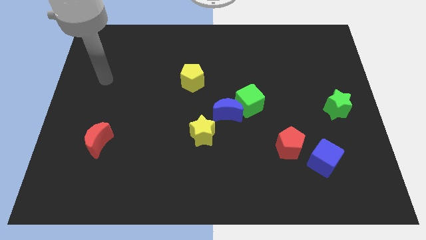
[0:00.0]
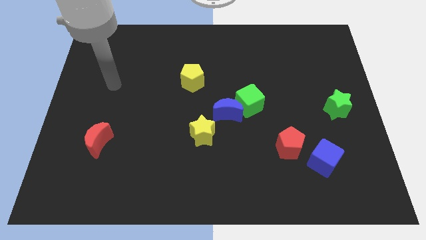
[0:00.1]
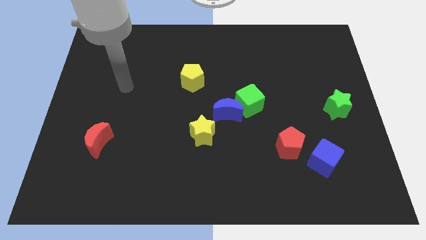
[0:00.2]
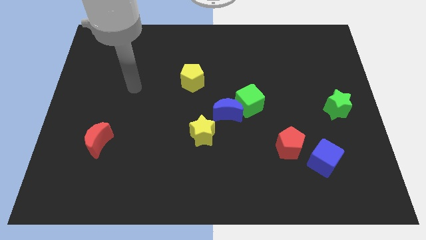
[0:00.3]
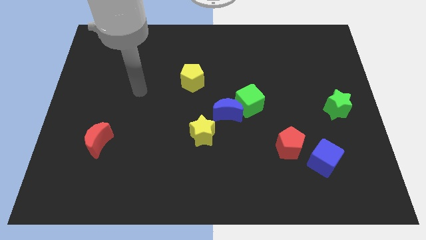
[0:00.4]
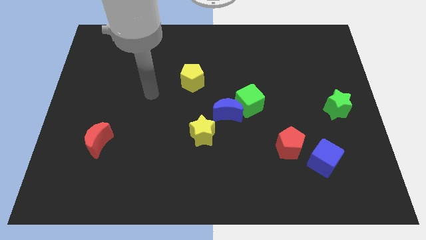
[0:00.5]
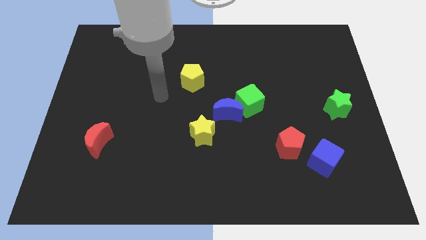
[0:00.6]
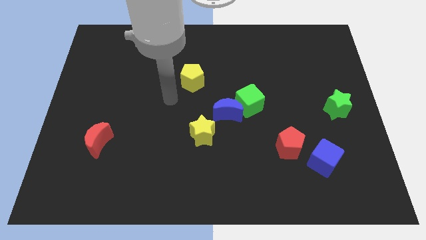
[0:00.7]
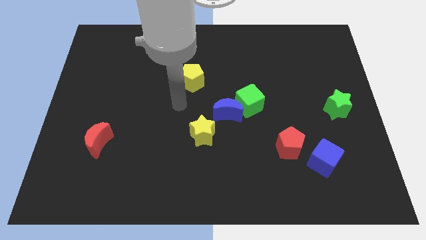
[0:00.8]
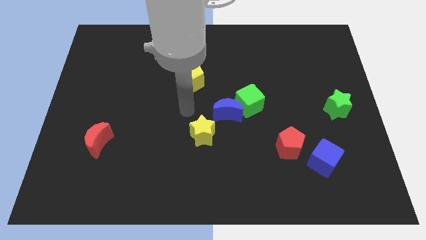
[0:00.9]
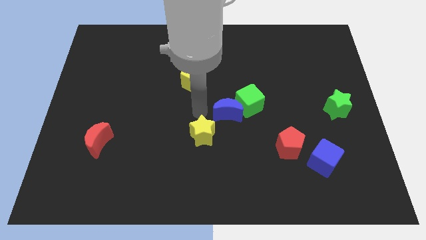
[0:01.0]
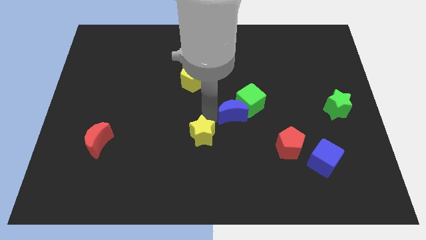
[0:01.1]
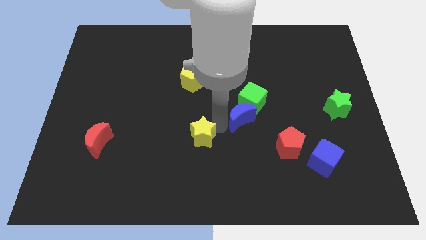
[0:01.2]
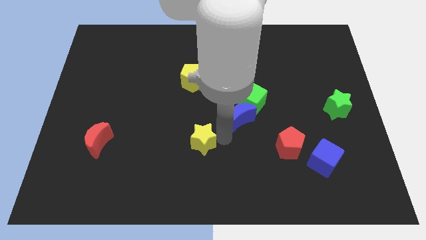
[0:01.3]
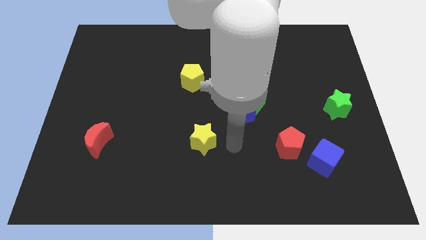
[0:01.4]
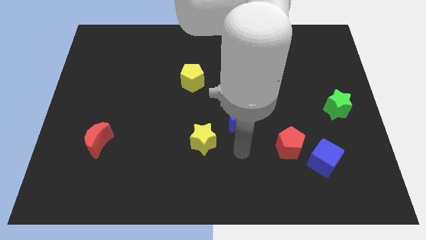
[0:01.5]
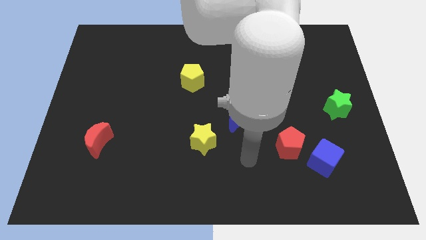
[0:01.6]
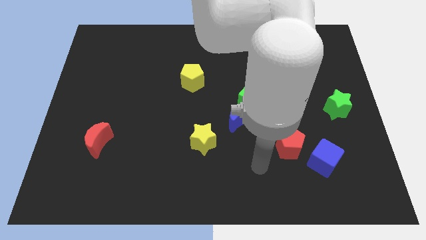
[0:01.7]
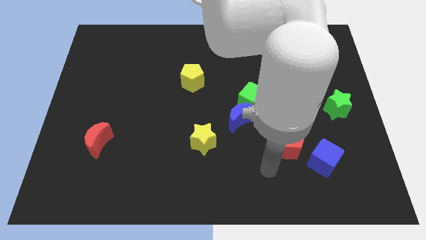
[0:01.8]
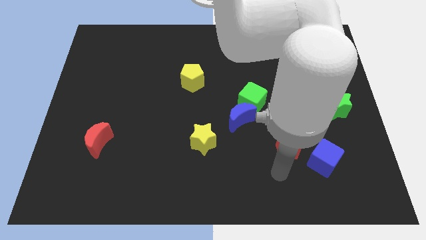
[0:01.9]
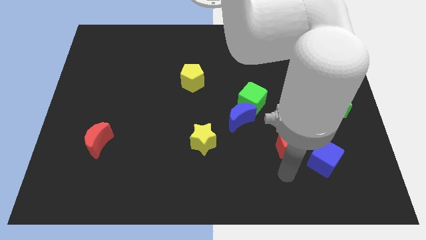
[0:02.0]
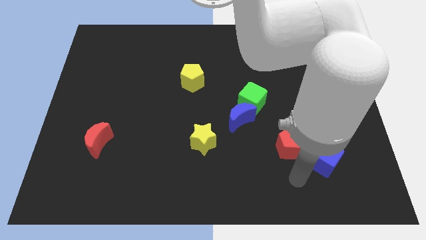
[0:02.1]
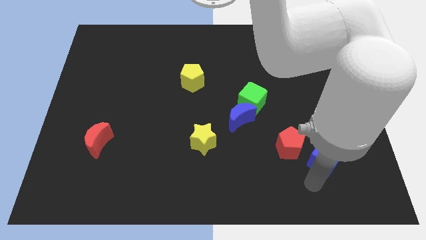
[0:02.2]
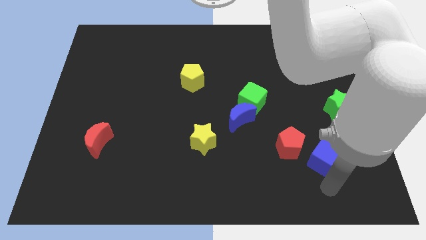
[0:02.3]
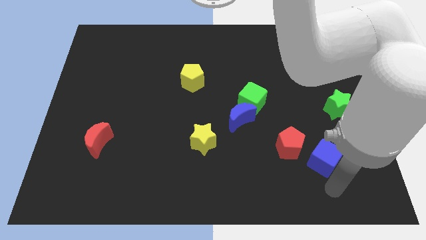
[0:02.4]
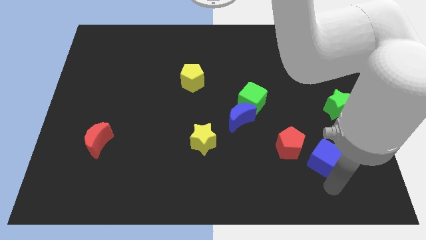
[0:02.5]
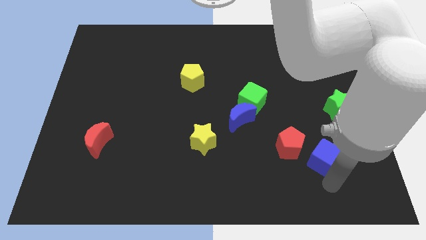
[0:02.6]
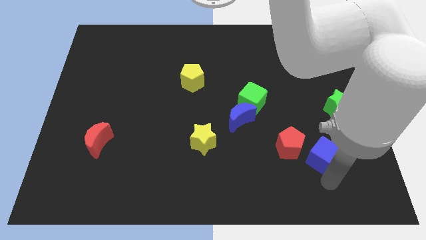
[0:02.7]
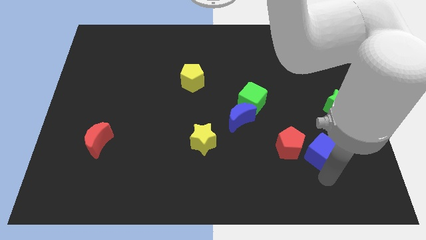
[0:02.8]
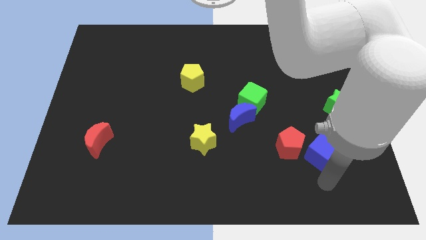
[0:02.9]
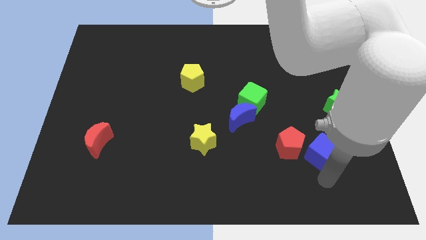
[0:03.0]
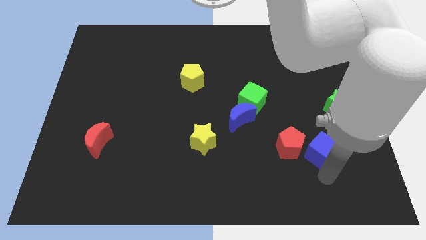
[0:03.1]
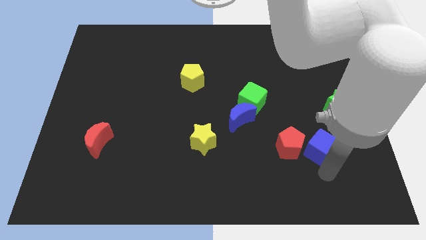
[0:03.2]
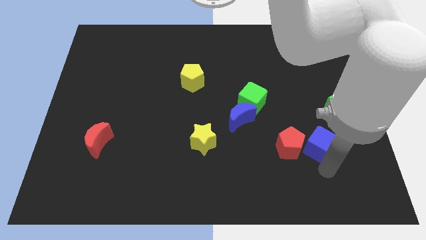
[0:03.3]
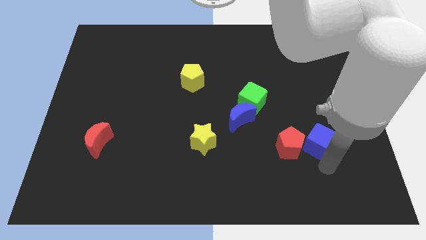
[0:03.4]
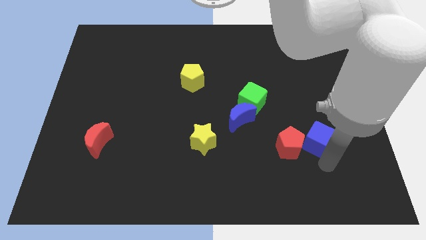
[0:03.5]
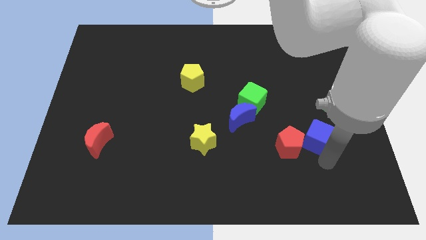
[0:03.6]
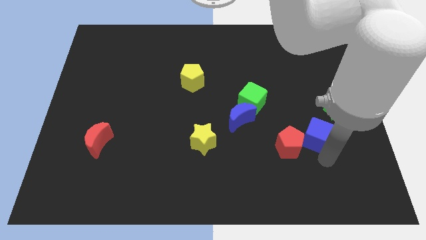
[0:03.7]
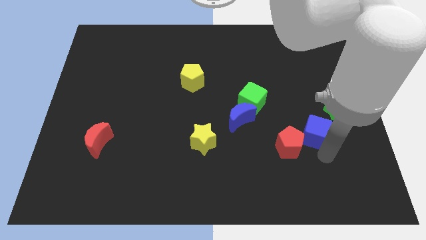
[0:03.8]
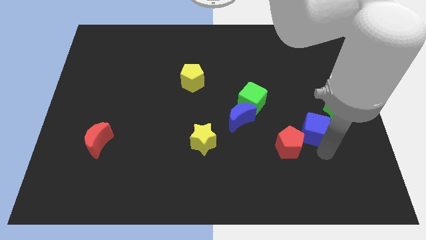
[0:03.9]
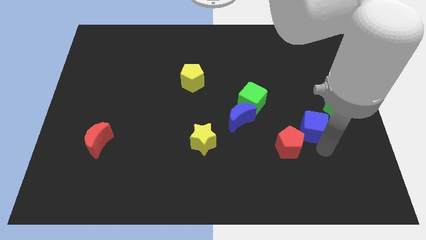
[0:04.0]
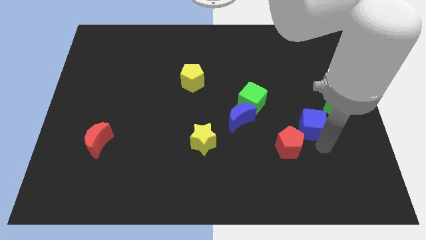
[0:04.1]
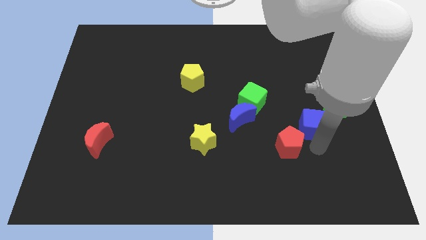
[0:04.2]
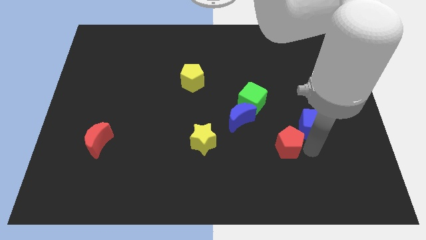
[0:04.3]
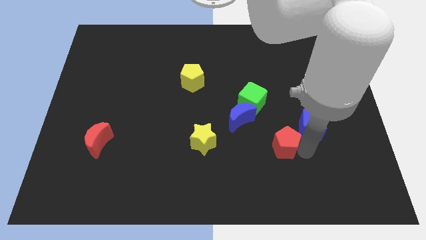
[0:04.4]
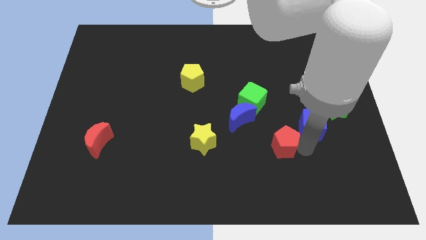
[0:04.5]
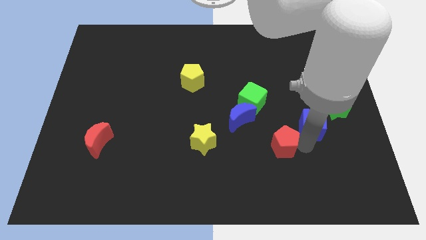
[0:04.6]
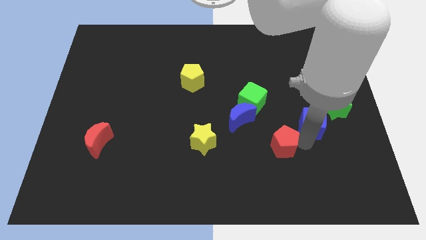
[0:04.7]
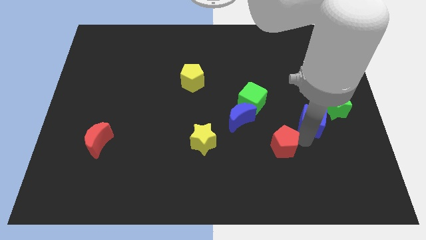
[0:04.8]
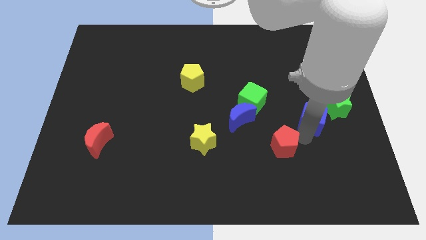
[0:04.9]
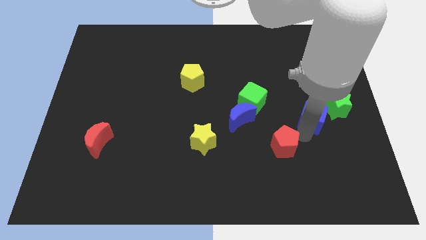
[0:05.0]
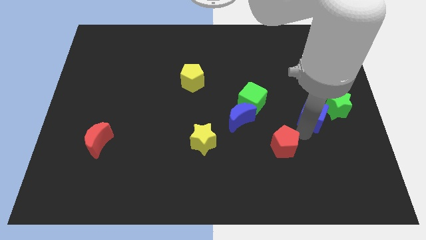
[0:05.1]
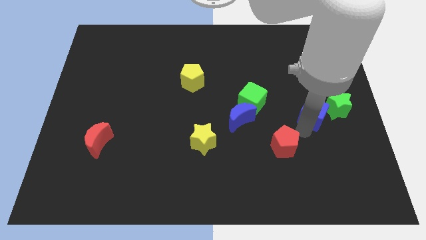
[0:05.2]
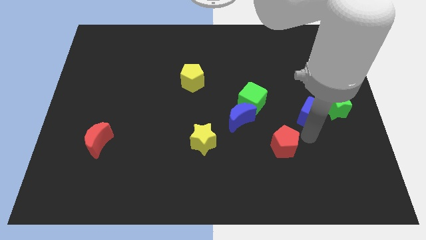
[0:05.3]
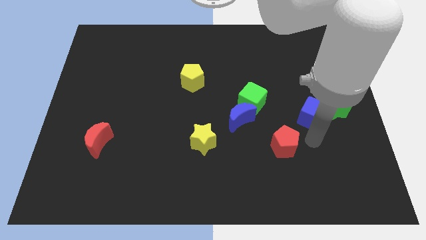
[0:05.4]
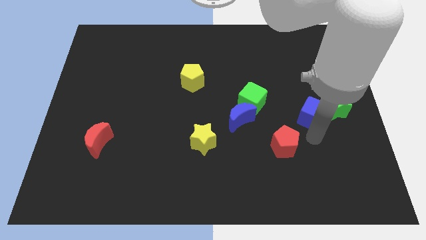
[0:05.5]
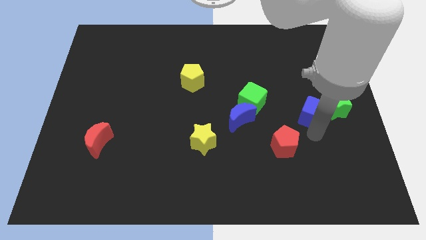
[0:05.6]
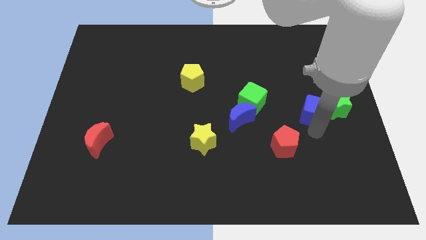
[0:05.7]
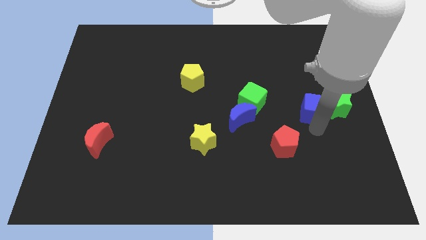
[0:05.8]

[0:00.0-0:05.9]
slide the blue cube diagonally up and to the left of the green star

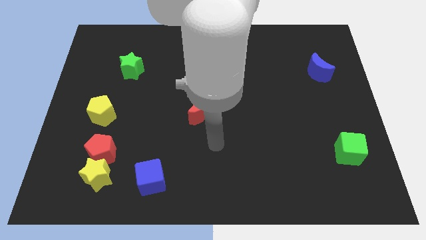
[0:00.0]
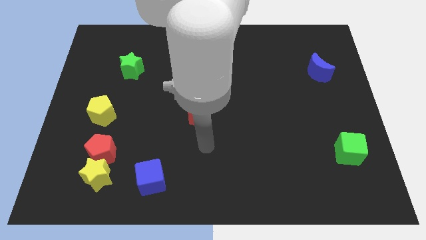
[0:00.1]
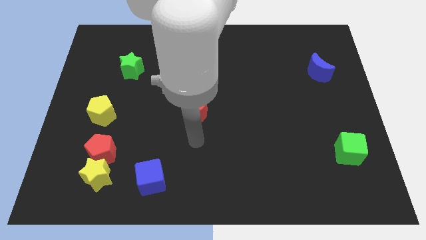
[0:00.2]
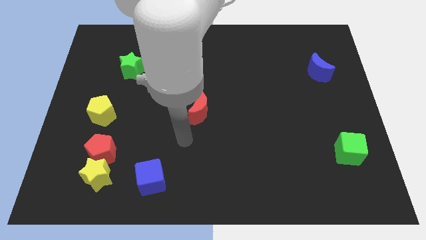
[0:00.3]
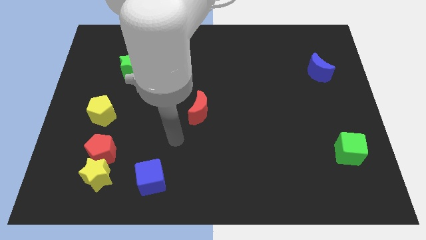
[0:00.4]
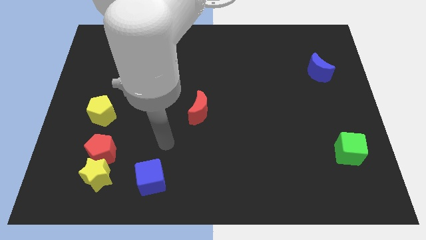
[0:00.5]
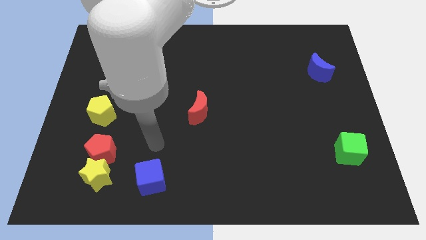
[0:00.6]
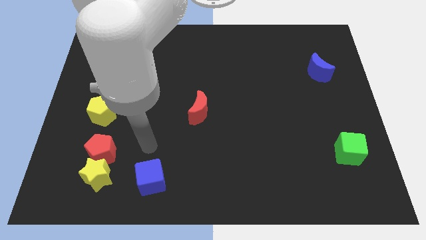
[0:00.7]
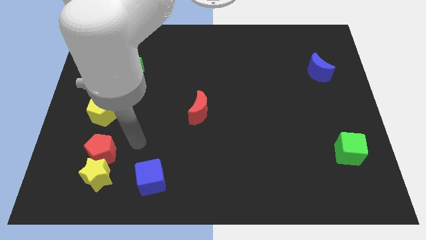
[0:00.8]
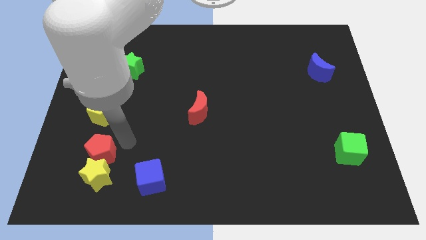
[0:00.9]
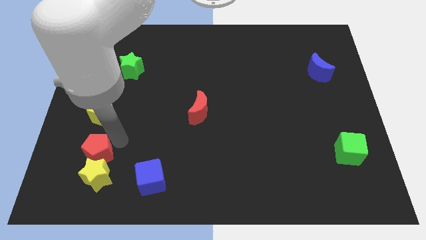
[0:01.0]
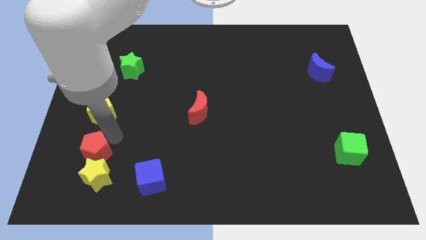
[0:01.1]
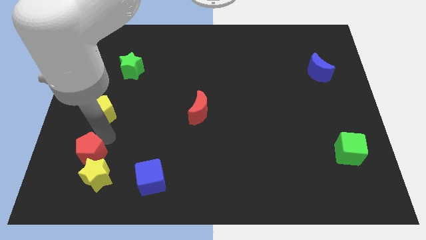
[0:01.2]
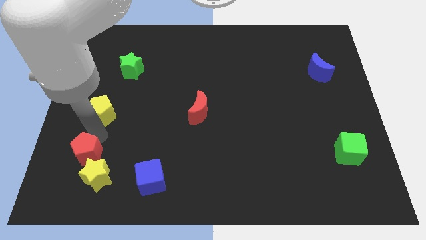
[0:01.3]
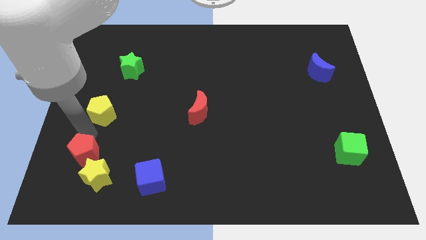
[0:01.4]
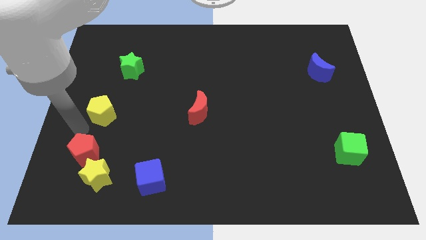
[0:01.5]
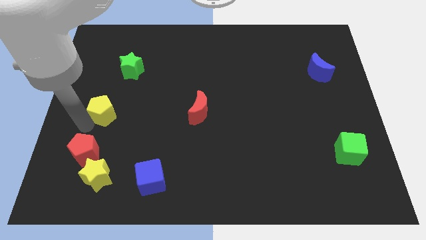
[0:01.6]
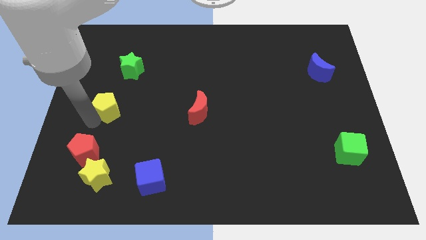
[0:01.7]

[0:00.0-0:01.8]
slide the yellow pentagon to the bottom side of the green star
